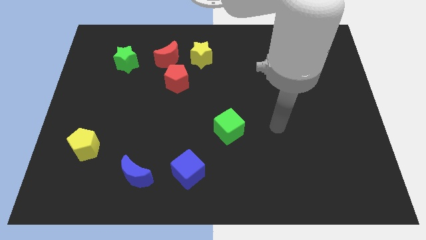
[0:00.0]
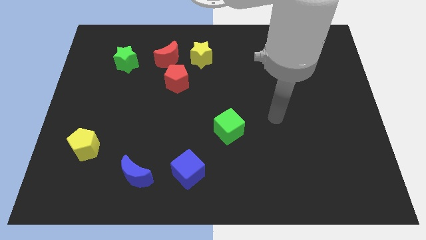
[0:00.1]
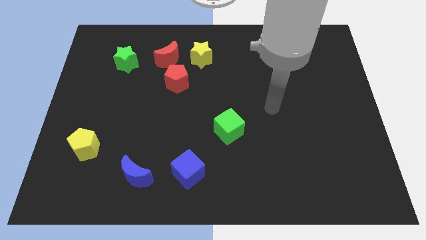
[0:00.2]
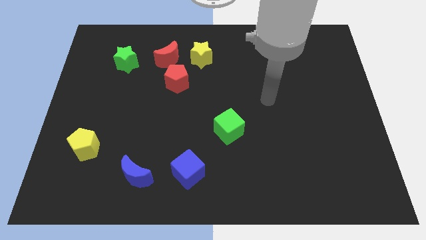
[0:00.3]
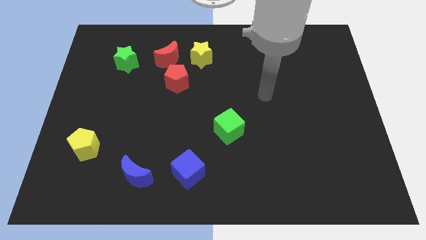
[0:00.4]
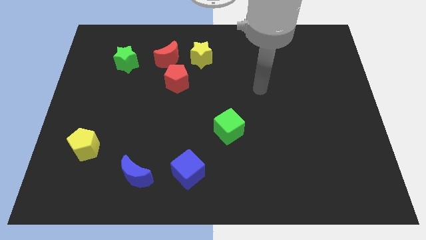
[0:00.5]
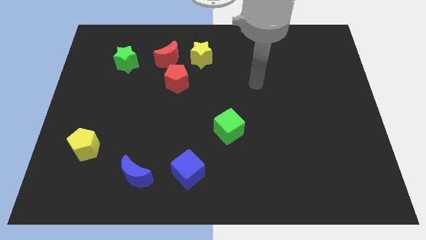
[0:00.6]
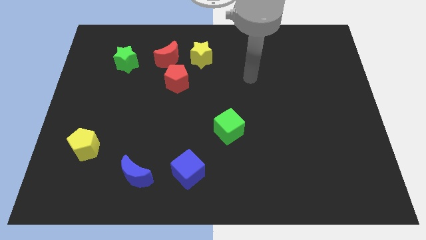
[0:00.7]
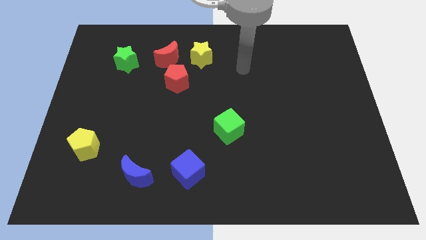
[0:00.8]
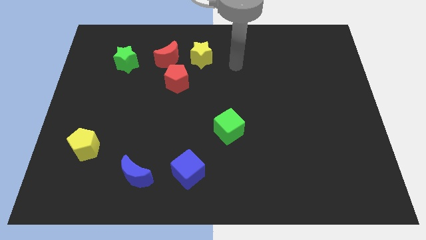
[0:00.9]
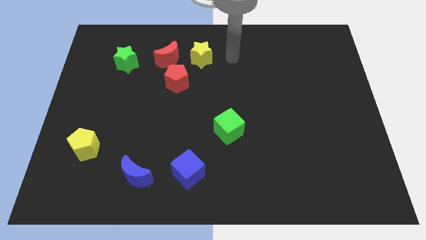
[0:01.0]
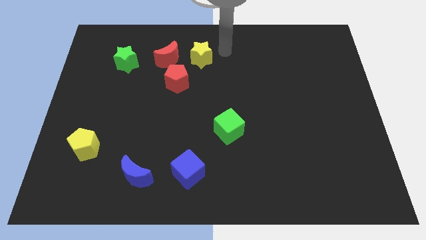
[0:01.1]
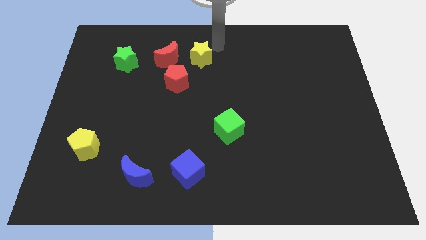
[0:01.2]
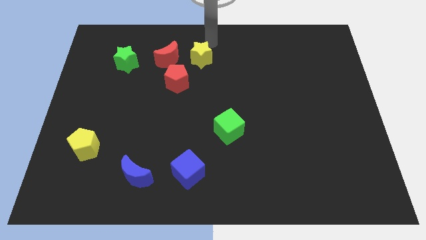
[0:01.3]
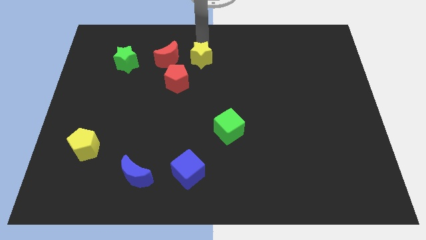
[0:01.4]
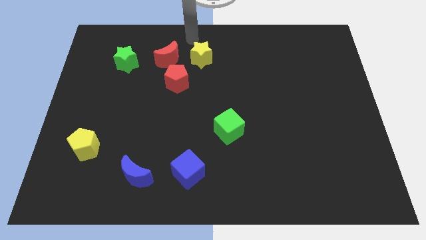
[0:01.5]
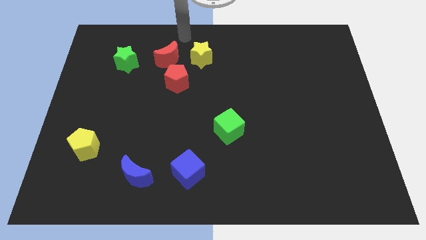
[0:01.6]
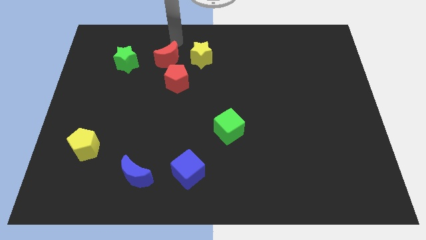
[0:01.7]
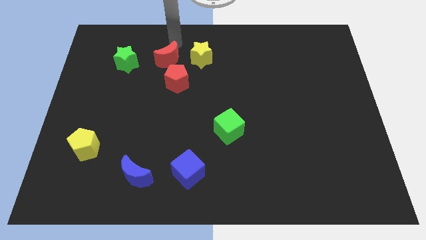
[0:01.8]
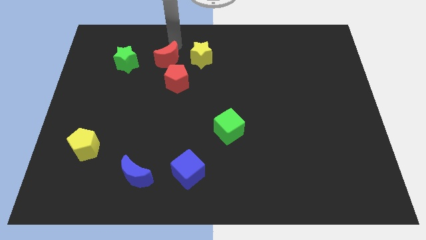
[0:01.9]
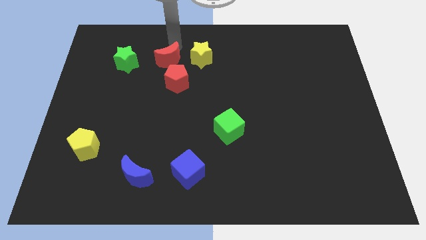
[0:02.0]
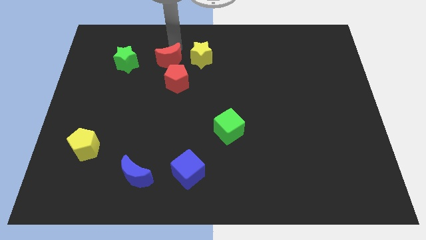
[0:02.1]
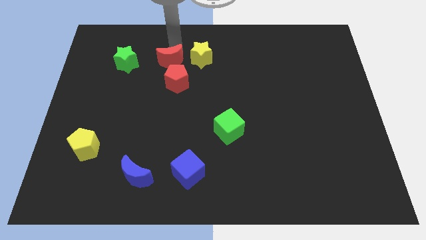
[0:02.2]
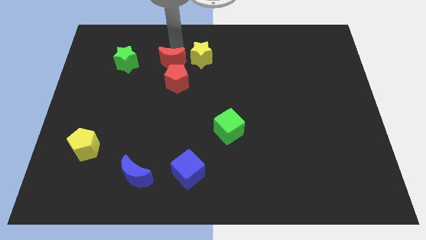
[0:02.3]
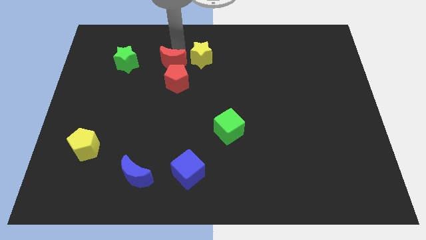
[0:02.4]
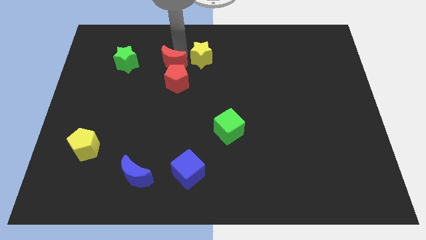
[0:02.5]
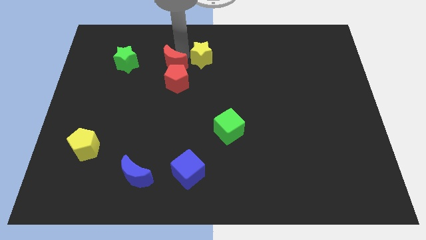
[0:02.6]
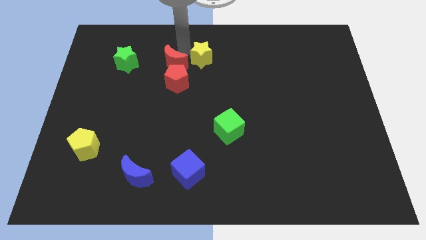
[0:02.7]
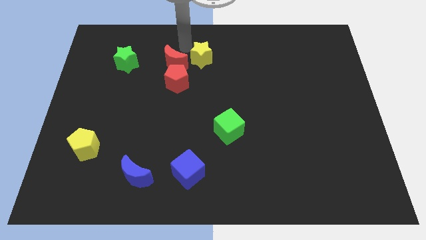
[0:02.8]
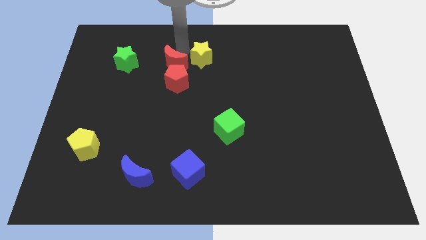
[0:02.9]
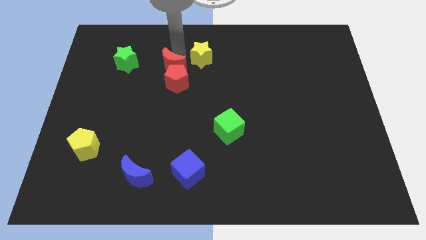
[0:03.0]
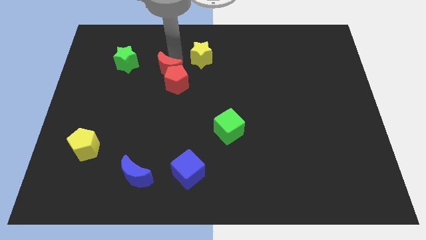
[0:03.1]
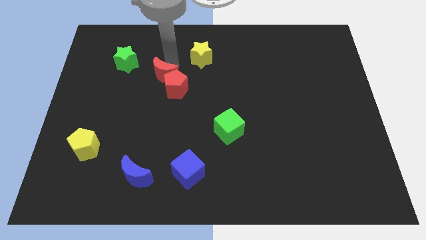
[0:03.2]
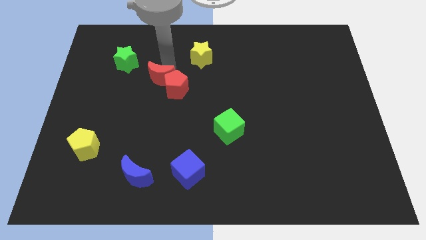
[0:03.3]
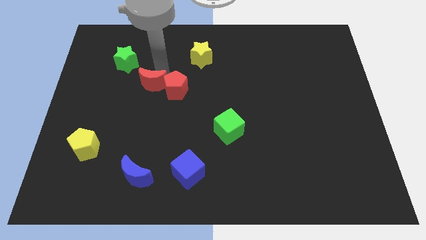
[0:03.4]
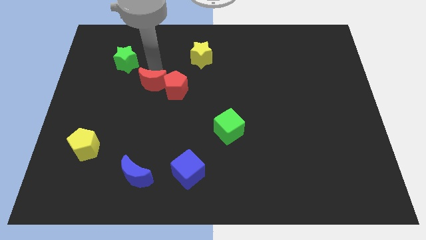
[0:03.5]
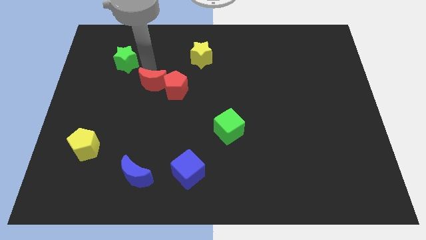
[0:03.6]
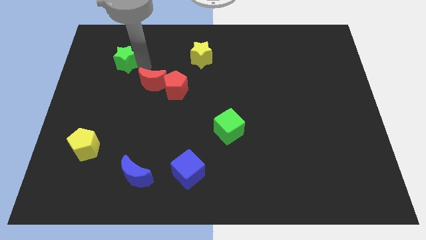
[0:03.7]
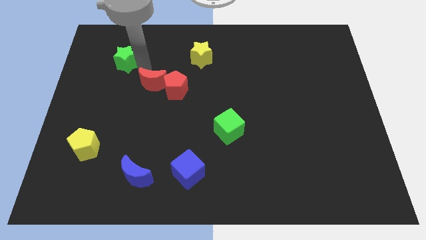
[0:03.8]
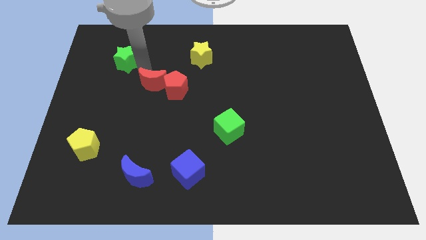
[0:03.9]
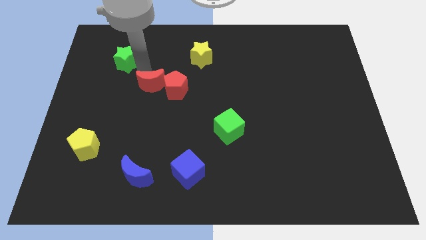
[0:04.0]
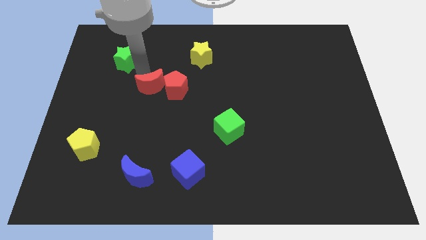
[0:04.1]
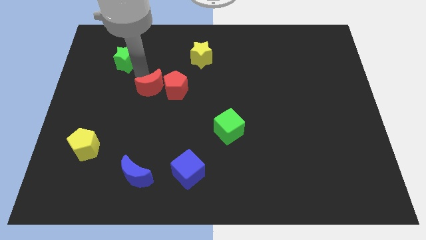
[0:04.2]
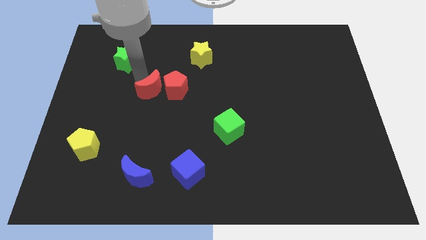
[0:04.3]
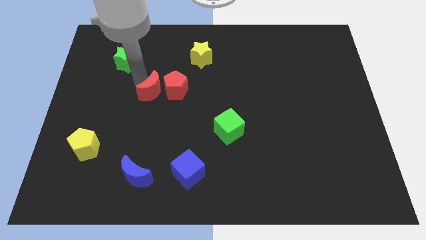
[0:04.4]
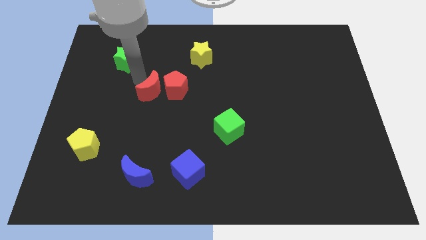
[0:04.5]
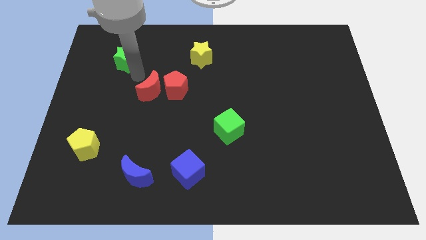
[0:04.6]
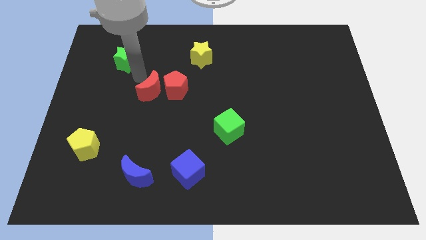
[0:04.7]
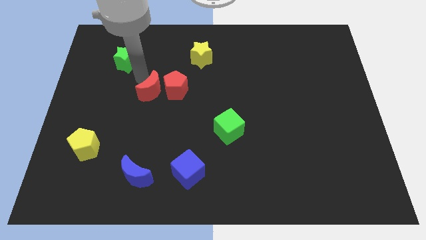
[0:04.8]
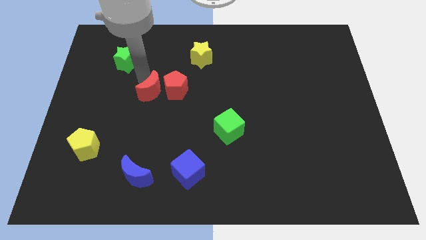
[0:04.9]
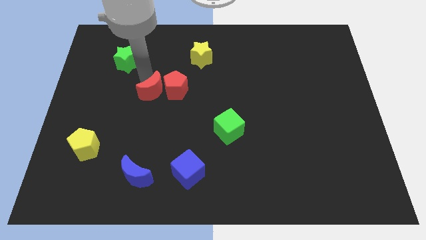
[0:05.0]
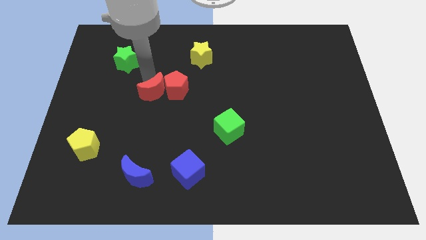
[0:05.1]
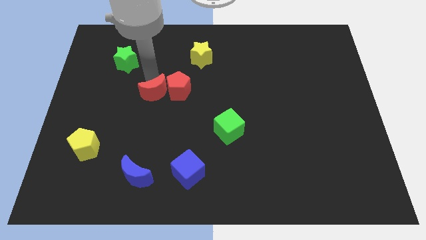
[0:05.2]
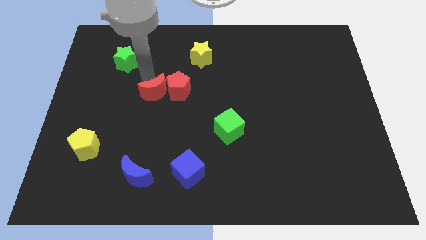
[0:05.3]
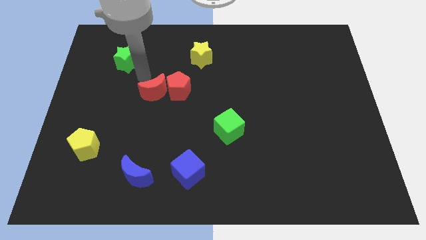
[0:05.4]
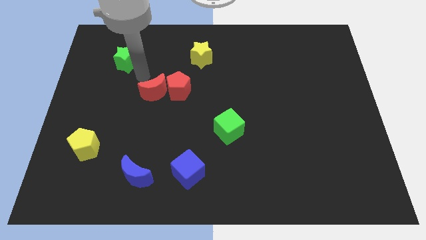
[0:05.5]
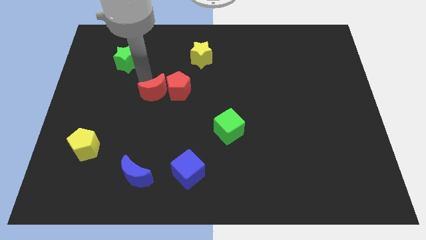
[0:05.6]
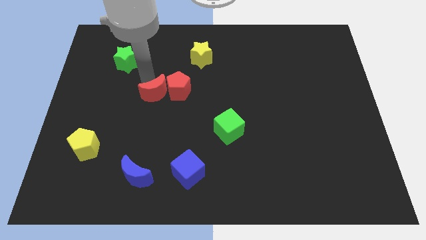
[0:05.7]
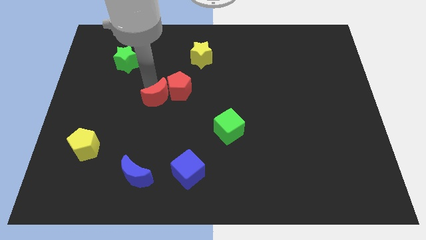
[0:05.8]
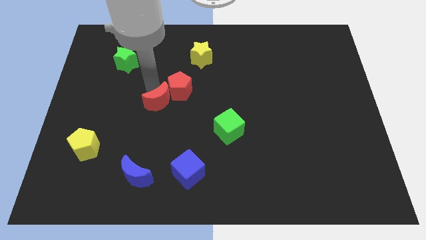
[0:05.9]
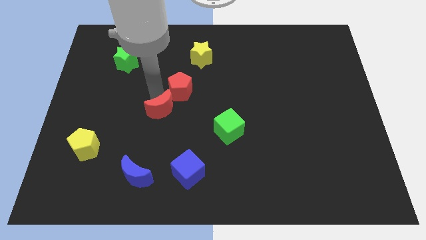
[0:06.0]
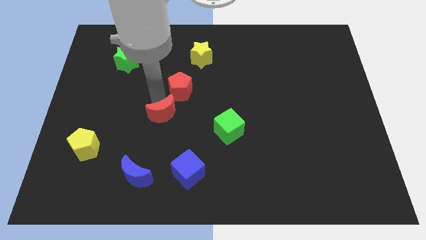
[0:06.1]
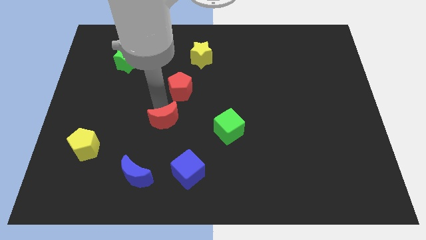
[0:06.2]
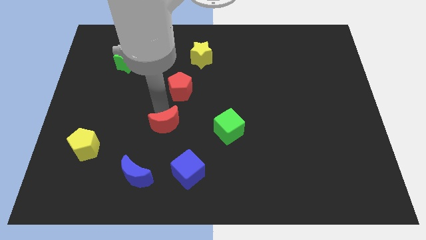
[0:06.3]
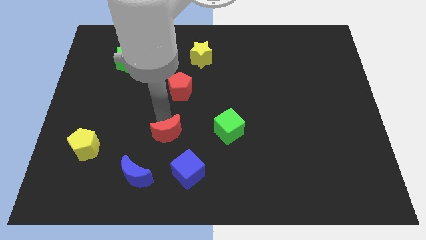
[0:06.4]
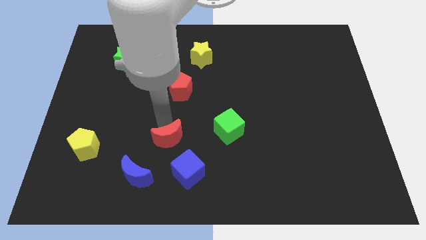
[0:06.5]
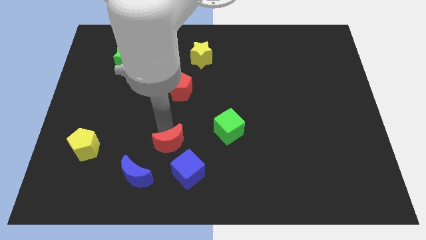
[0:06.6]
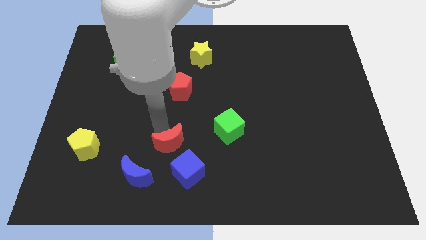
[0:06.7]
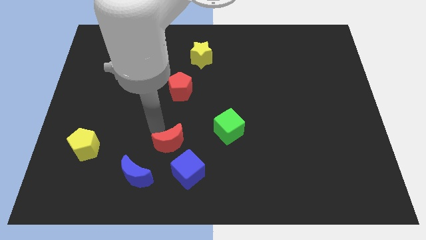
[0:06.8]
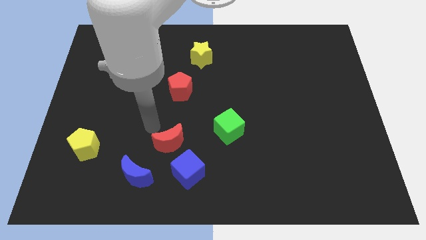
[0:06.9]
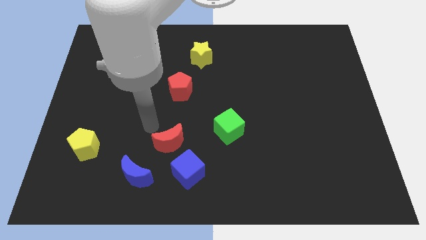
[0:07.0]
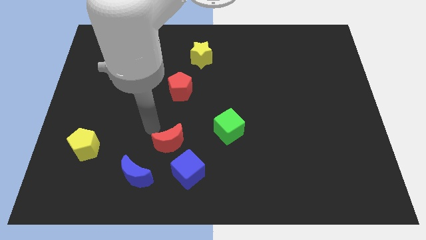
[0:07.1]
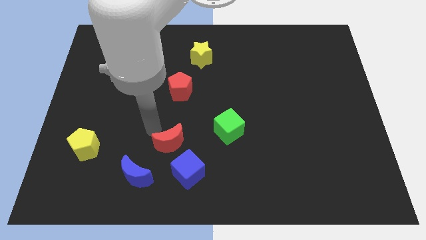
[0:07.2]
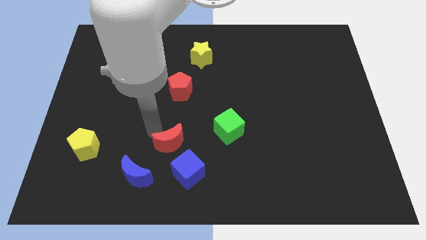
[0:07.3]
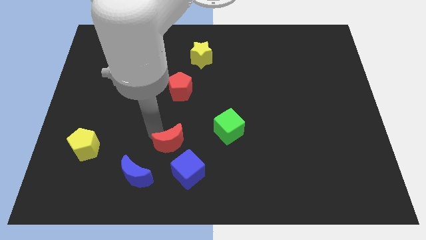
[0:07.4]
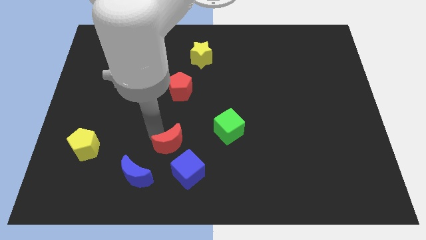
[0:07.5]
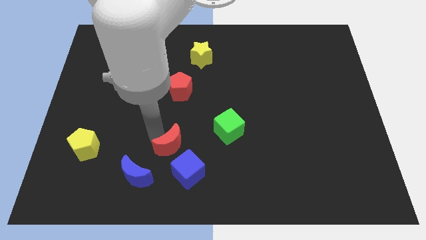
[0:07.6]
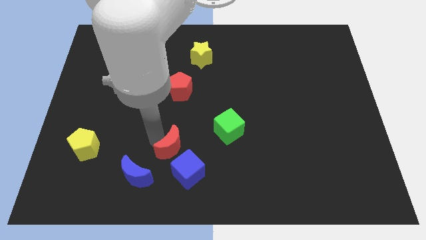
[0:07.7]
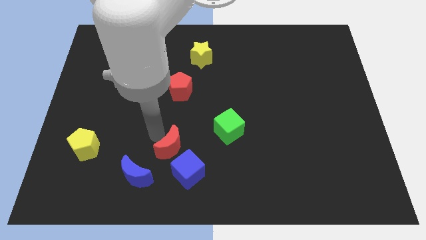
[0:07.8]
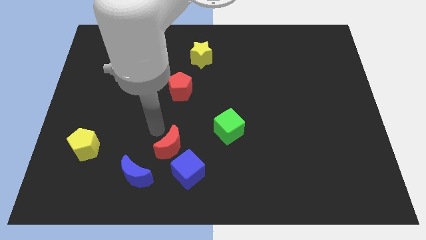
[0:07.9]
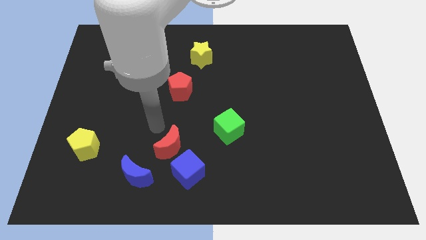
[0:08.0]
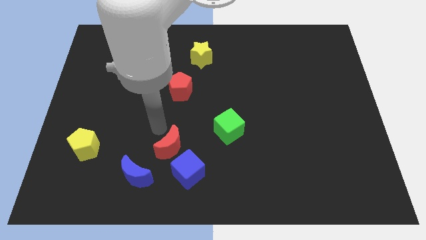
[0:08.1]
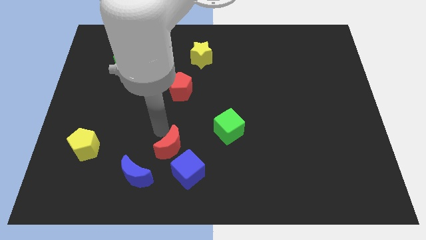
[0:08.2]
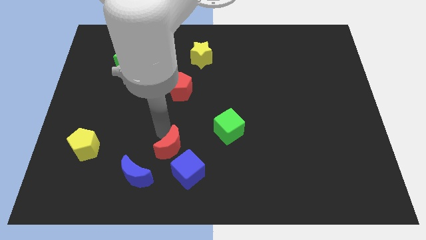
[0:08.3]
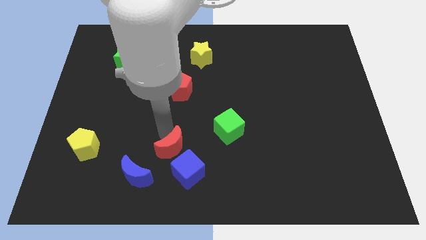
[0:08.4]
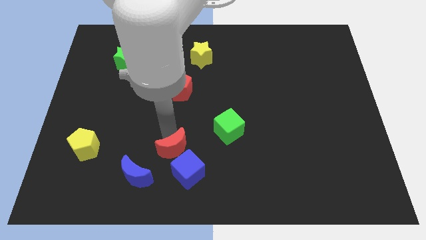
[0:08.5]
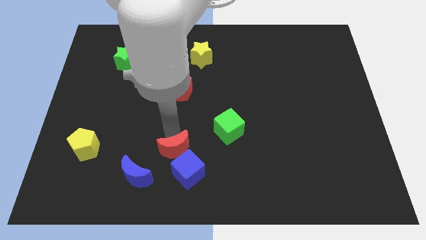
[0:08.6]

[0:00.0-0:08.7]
push the red moon to the blue cube
